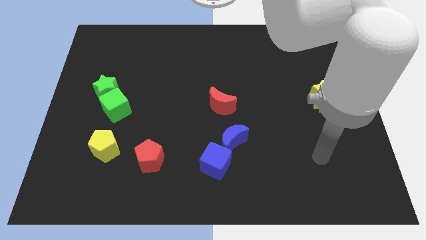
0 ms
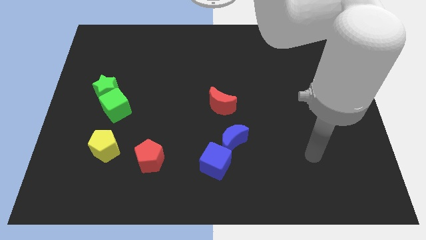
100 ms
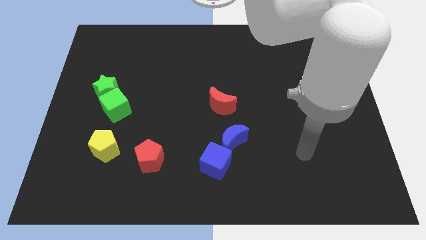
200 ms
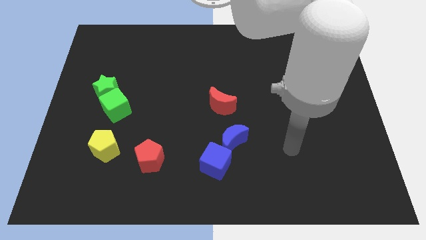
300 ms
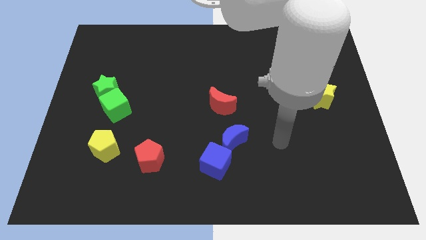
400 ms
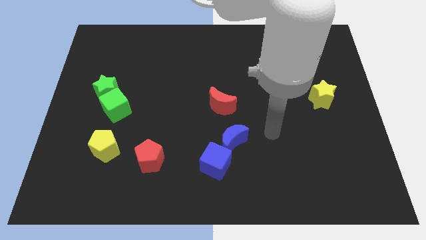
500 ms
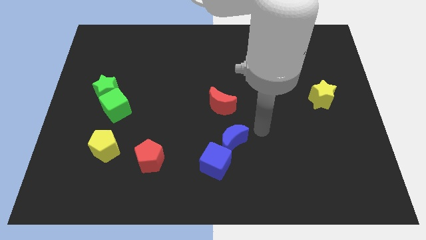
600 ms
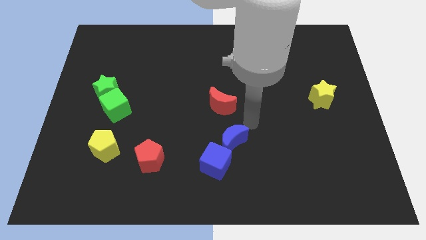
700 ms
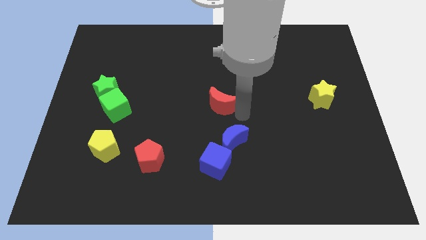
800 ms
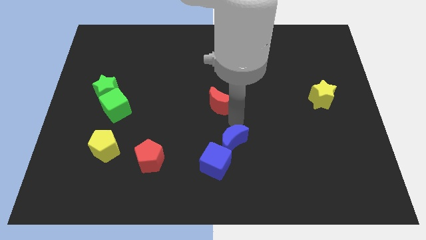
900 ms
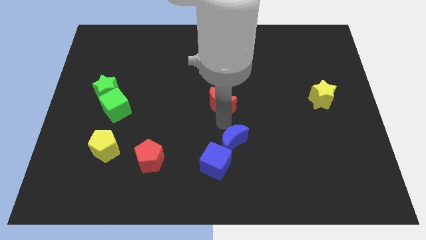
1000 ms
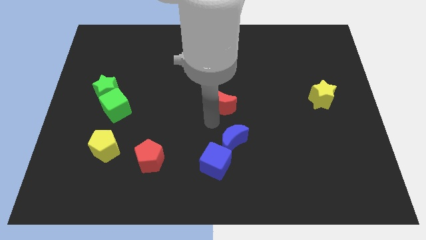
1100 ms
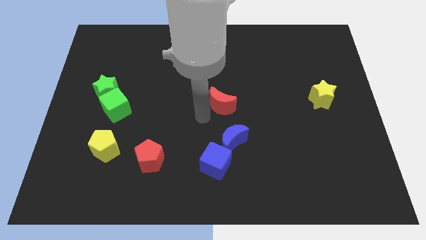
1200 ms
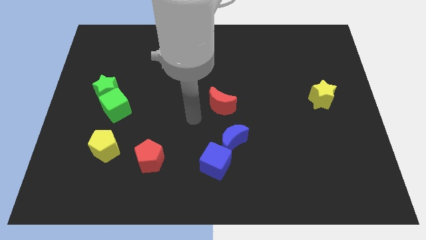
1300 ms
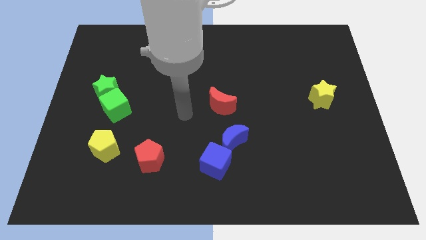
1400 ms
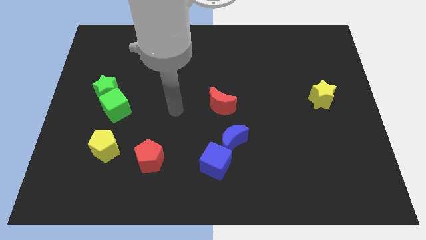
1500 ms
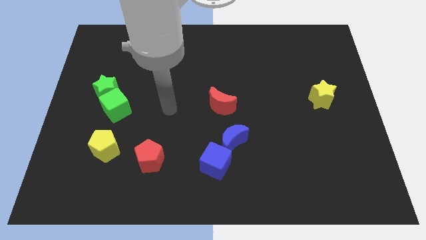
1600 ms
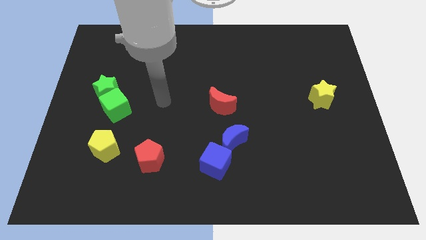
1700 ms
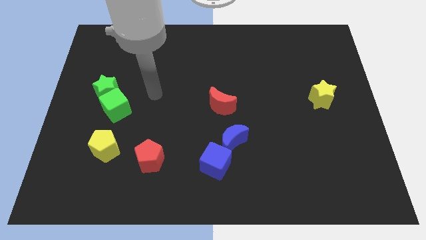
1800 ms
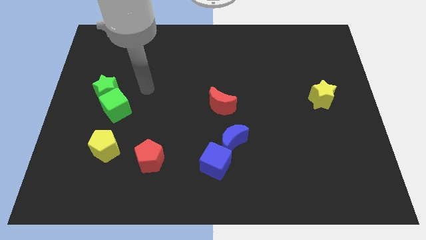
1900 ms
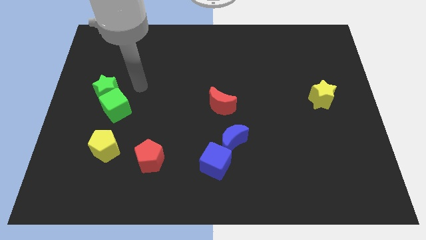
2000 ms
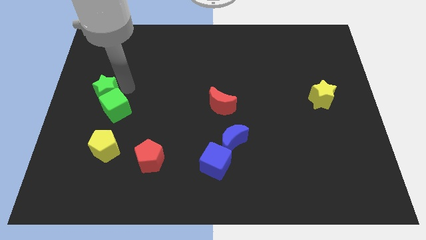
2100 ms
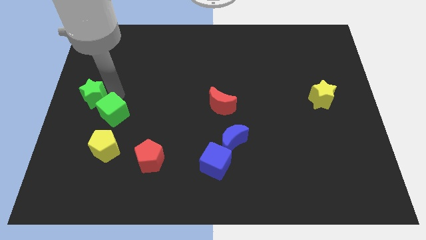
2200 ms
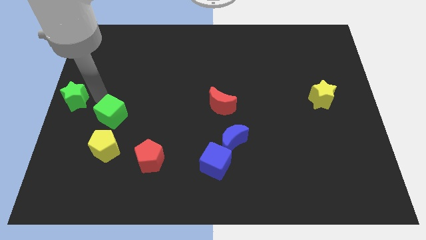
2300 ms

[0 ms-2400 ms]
separate the green cube from the green star

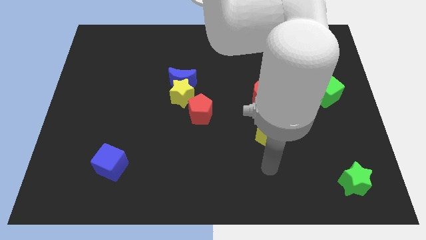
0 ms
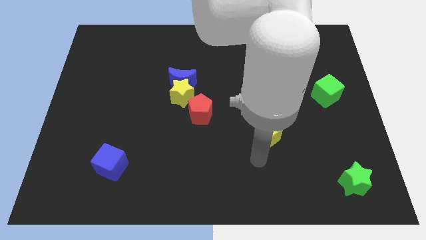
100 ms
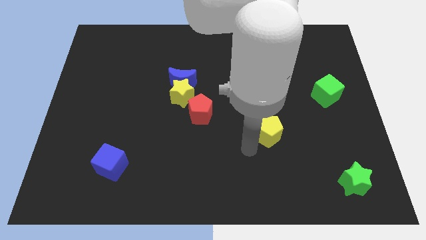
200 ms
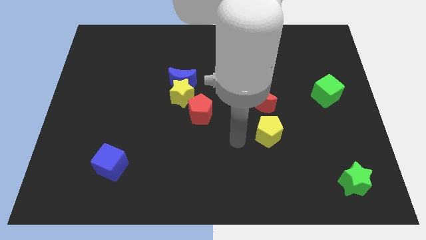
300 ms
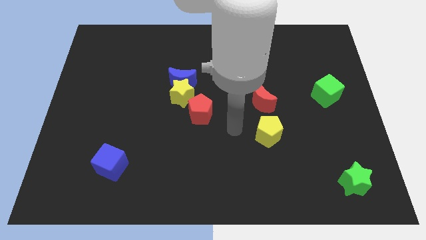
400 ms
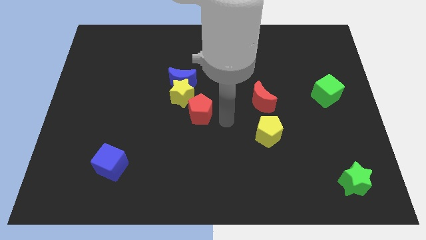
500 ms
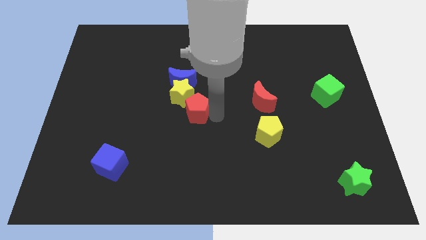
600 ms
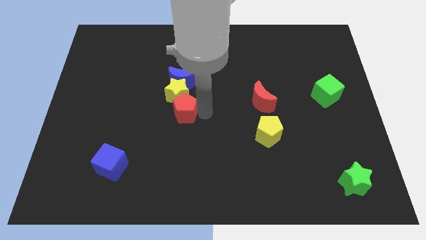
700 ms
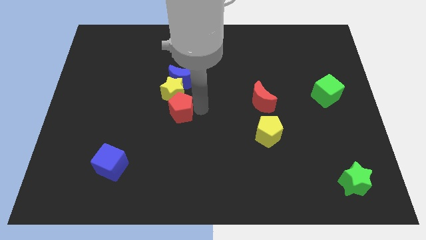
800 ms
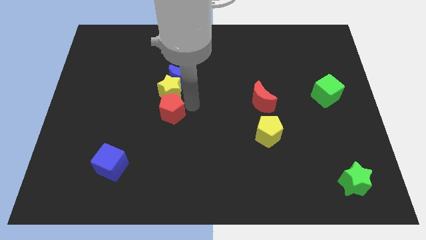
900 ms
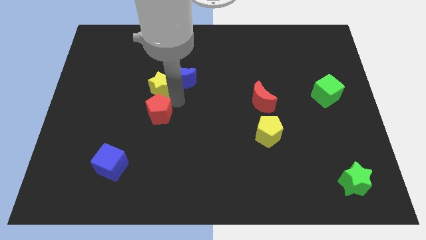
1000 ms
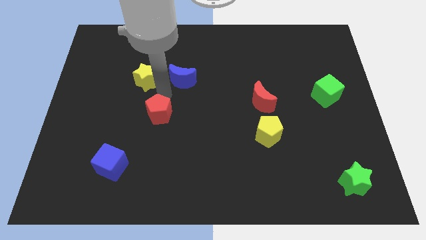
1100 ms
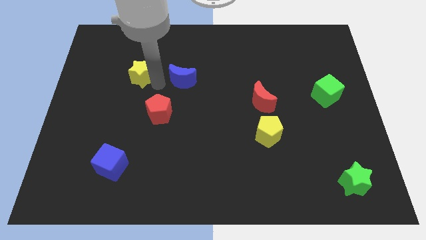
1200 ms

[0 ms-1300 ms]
pull the blue moon apart from the yellow star

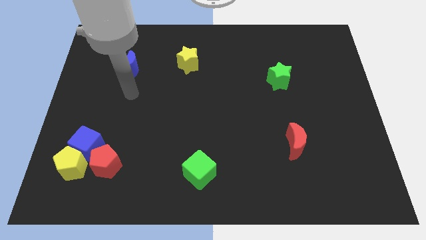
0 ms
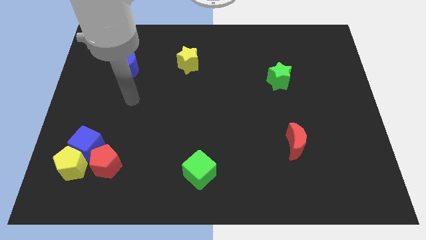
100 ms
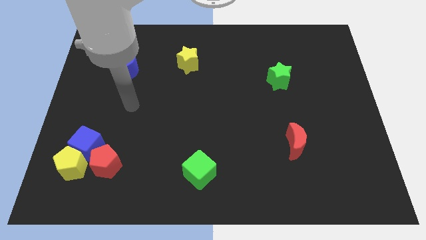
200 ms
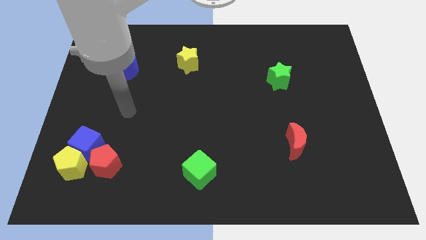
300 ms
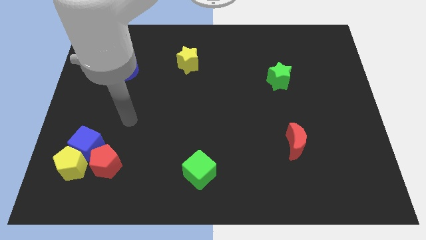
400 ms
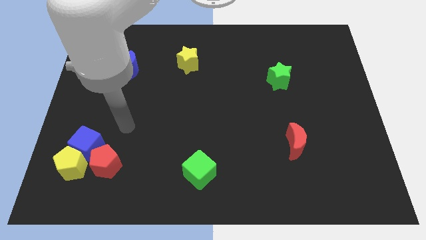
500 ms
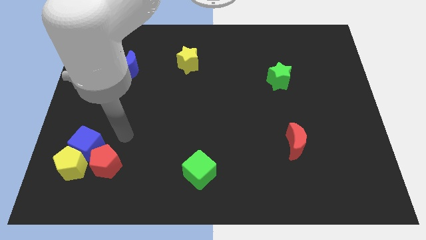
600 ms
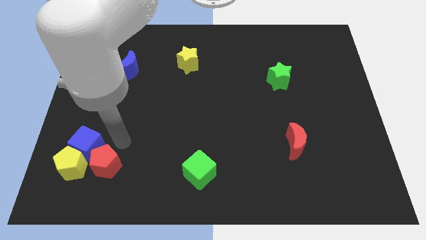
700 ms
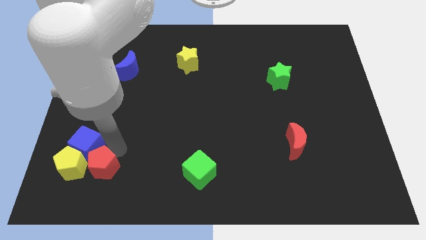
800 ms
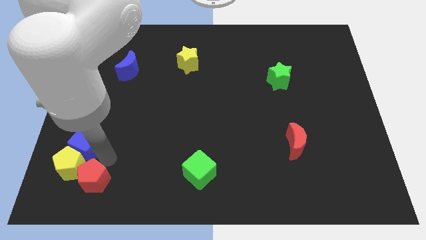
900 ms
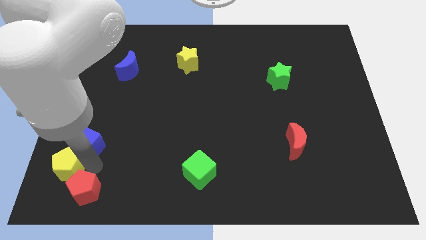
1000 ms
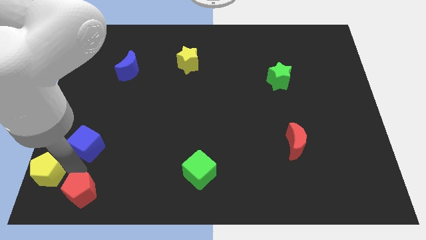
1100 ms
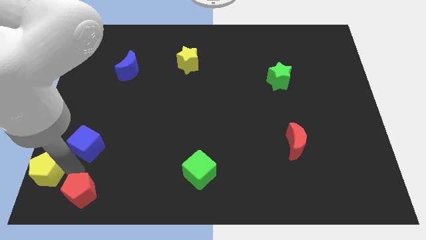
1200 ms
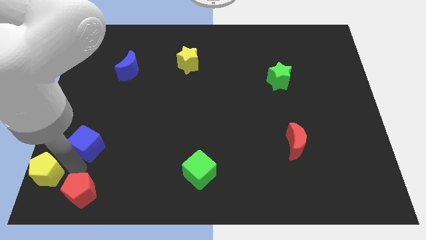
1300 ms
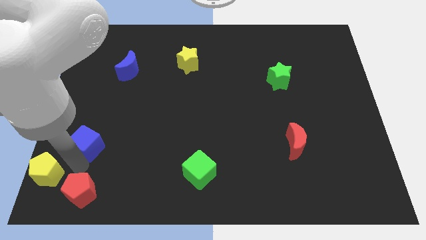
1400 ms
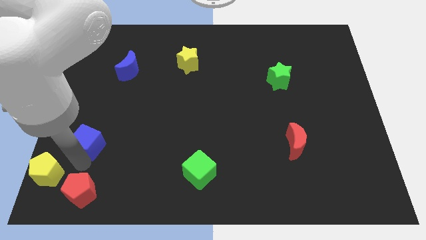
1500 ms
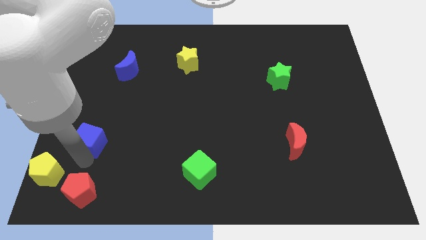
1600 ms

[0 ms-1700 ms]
pull the blue cube apart from the yellow pentagon and red pentagon

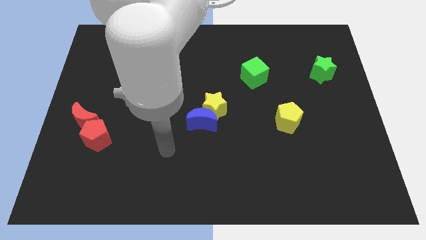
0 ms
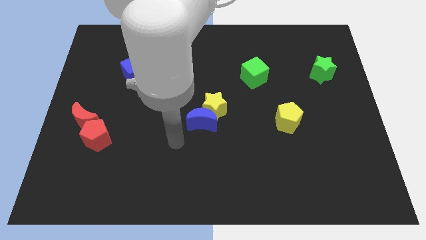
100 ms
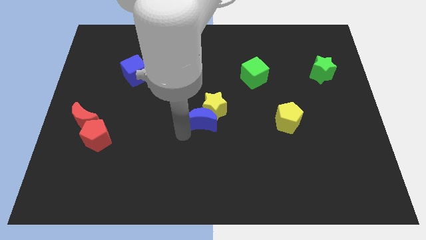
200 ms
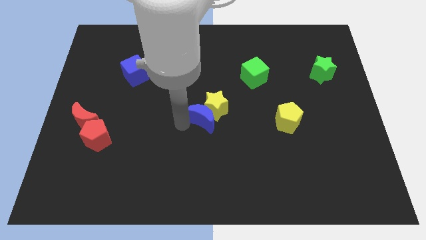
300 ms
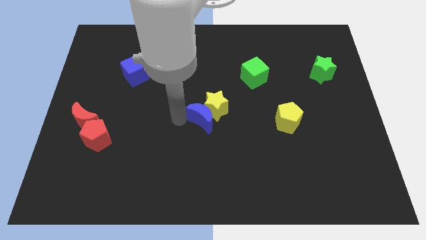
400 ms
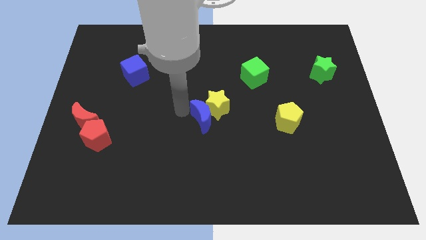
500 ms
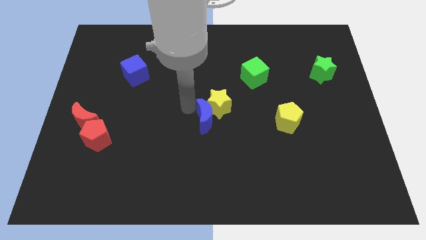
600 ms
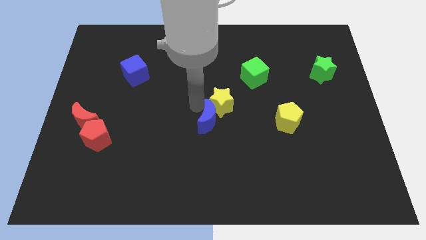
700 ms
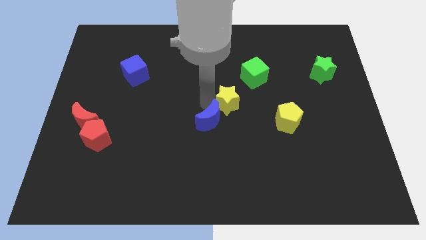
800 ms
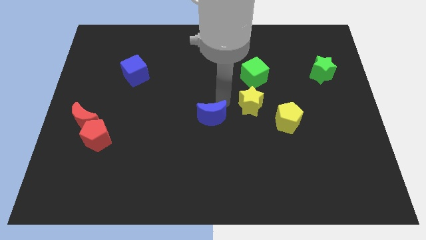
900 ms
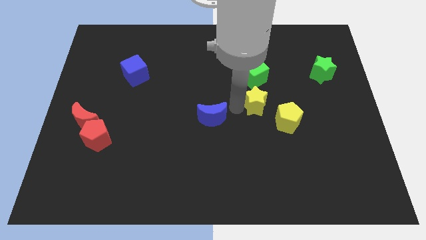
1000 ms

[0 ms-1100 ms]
separate the blue moon from the yellow star

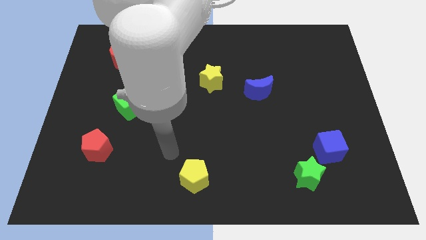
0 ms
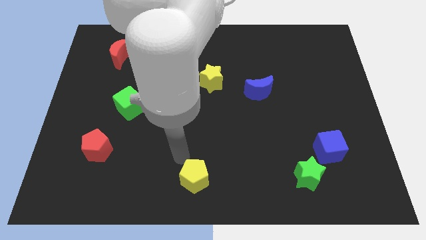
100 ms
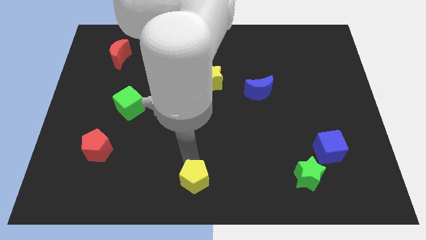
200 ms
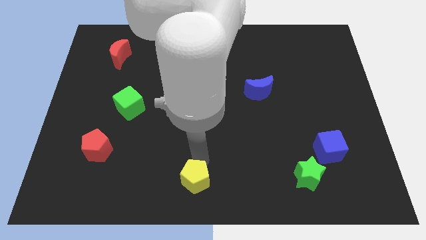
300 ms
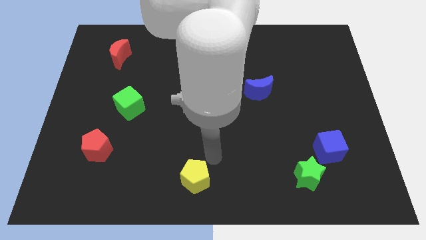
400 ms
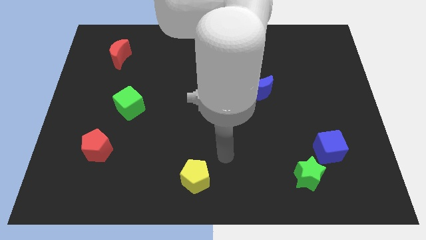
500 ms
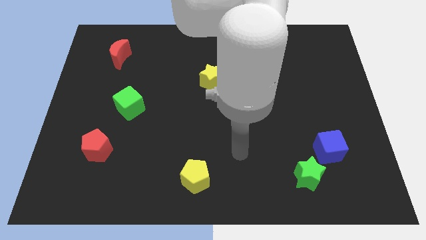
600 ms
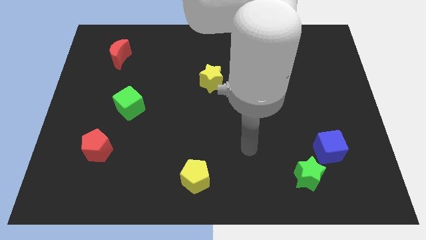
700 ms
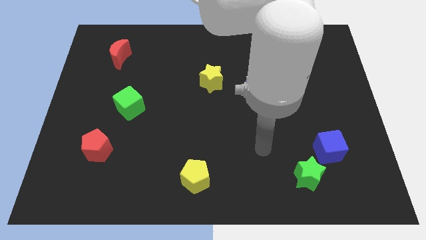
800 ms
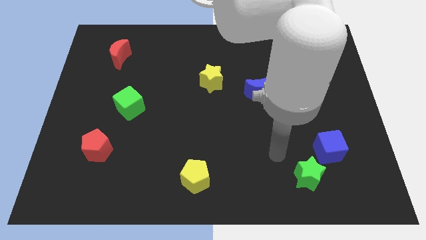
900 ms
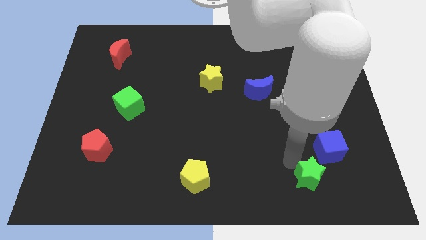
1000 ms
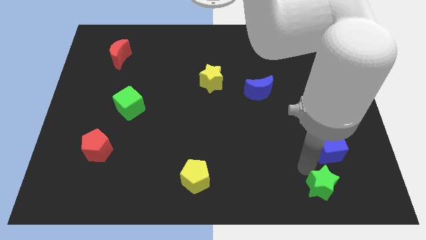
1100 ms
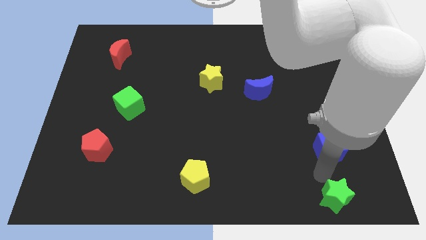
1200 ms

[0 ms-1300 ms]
separate the blue cube from the green star

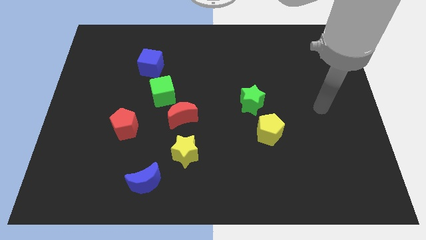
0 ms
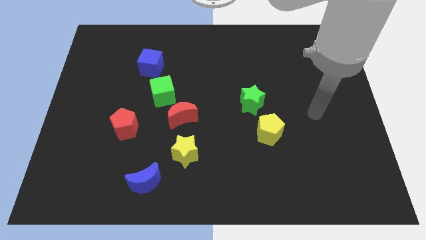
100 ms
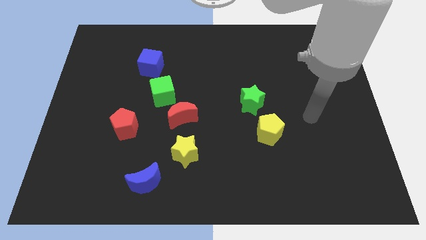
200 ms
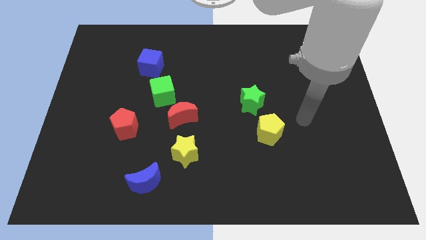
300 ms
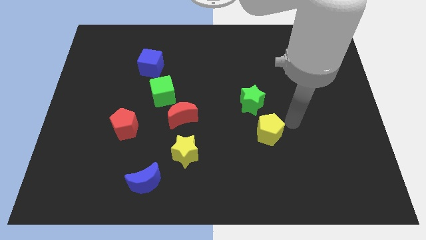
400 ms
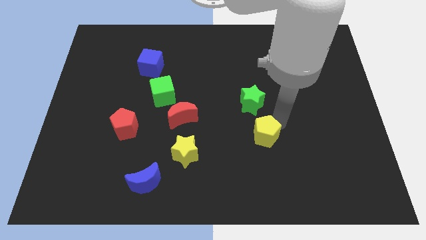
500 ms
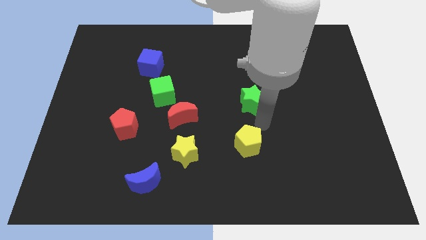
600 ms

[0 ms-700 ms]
move the green star away from the yellow pentagon

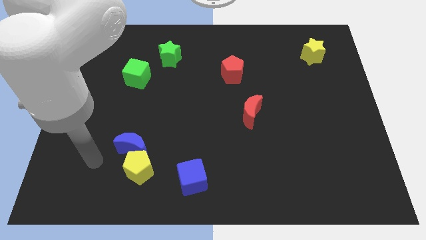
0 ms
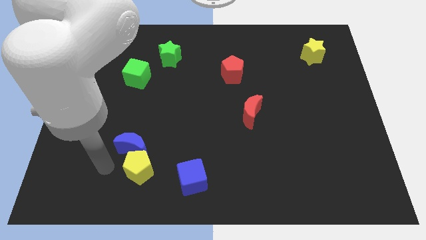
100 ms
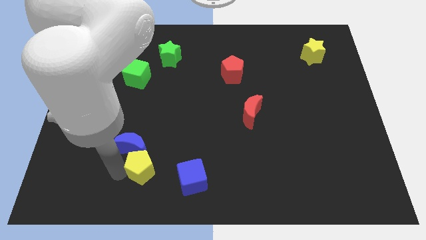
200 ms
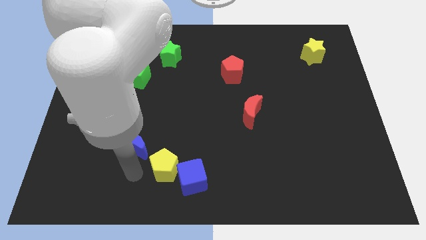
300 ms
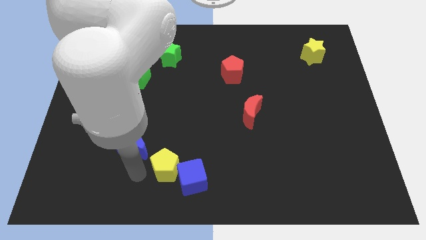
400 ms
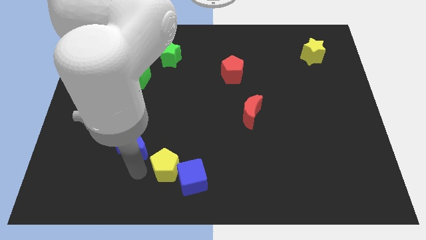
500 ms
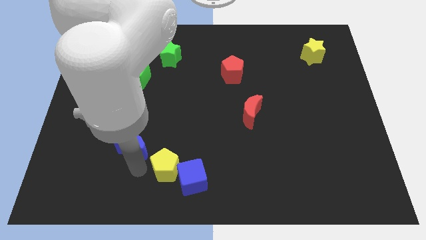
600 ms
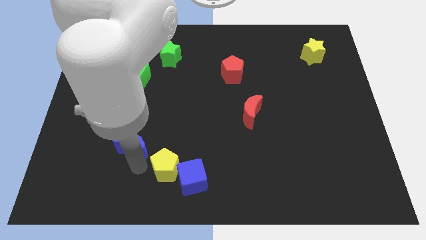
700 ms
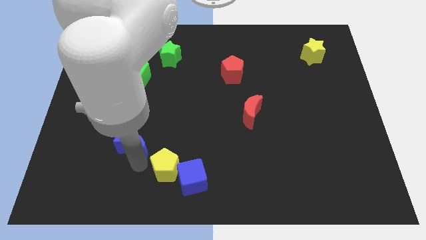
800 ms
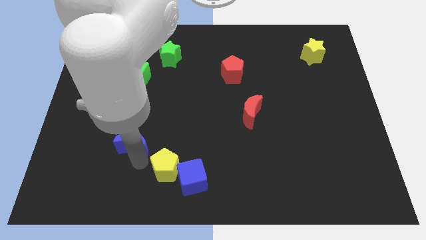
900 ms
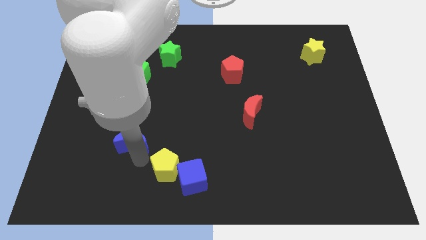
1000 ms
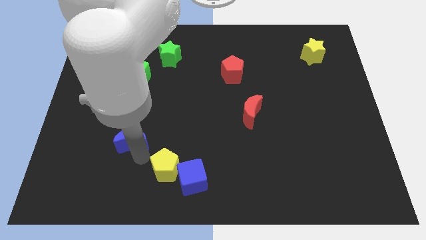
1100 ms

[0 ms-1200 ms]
move the blue moon away from the yellow pentagon
